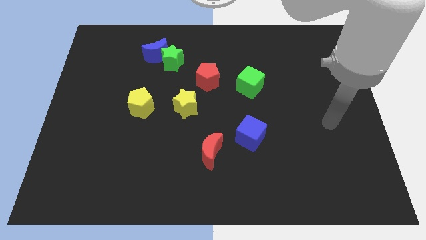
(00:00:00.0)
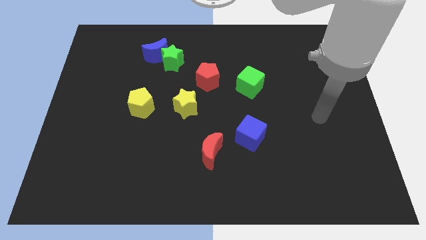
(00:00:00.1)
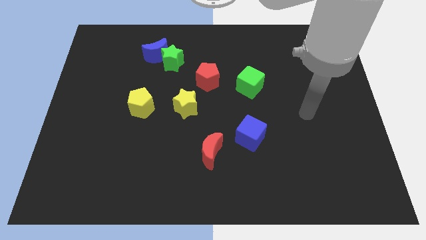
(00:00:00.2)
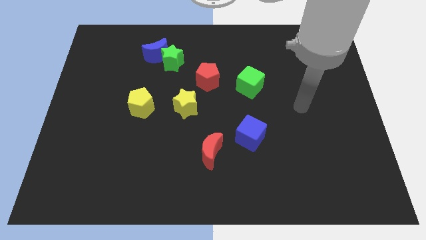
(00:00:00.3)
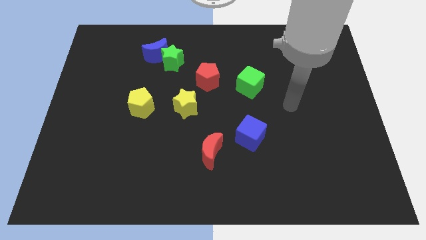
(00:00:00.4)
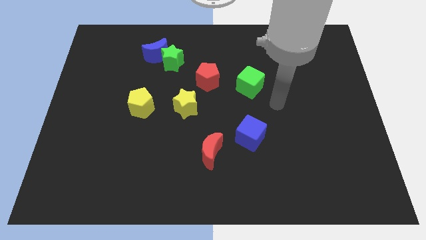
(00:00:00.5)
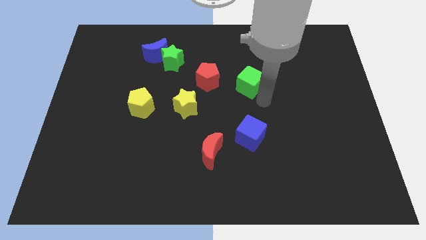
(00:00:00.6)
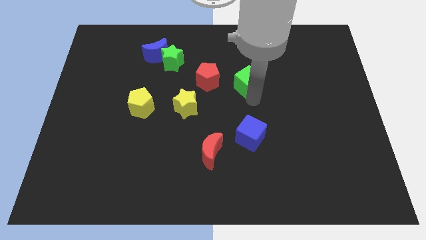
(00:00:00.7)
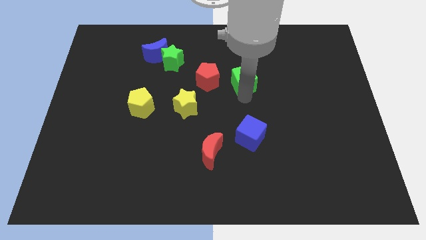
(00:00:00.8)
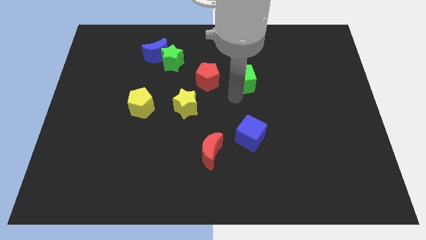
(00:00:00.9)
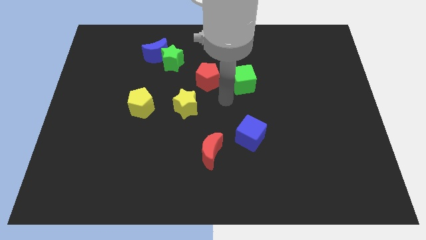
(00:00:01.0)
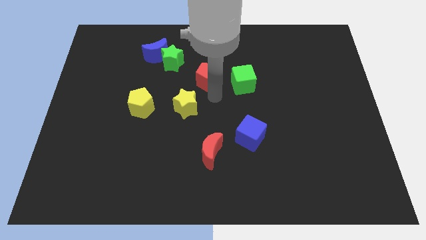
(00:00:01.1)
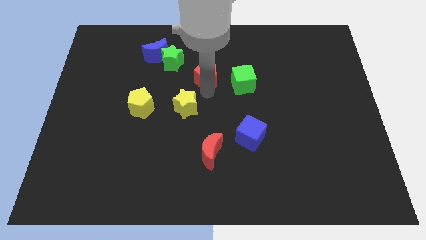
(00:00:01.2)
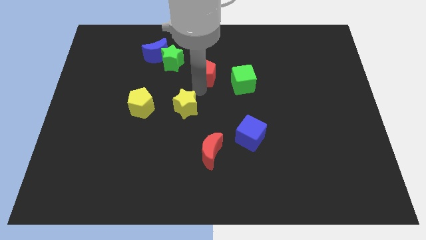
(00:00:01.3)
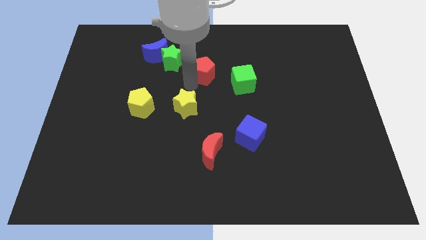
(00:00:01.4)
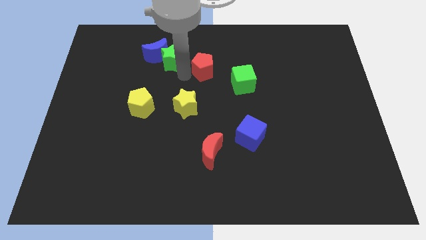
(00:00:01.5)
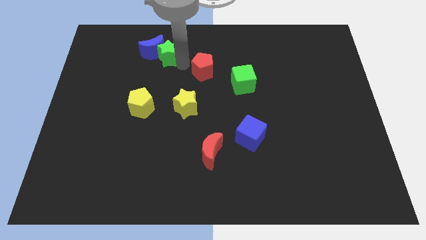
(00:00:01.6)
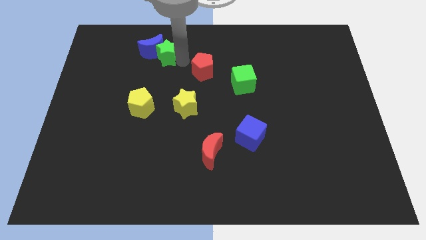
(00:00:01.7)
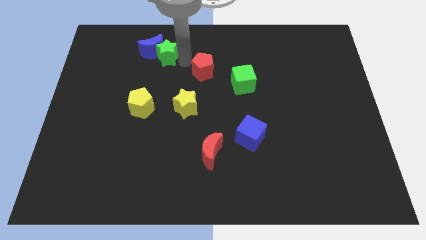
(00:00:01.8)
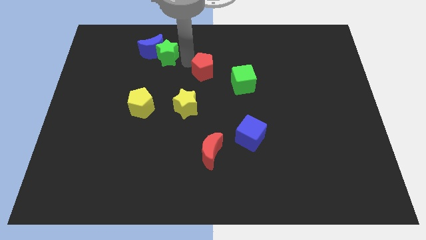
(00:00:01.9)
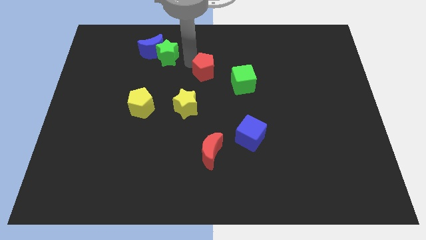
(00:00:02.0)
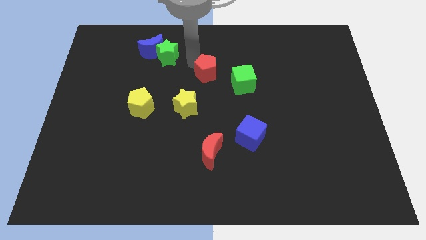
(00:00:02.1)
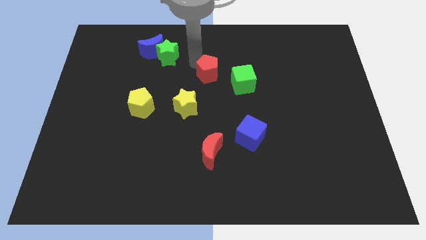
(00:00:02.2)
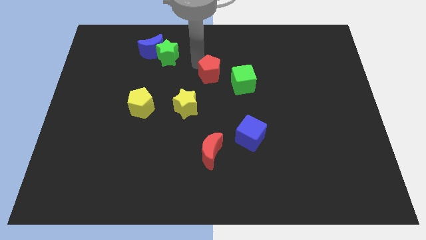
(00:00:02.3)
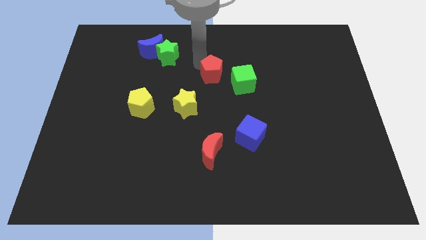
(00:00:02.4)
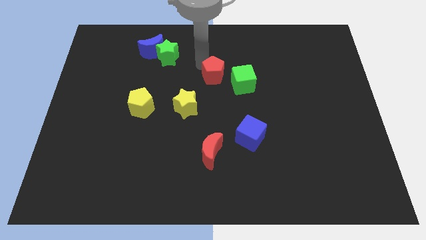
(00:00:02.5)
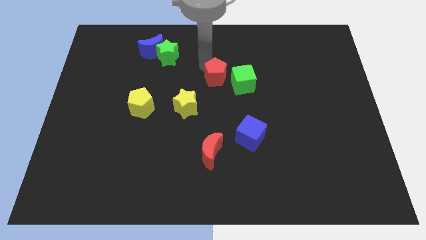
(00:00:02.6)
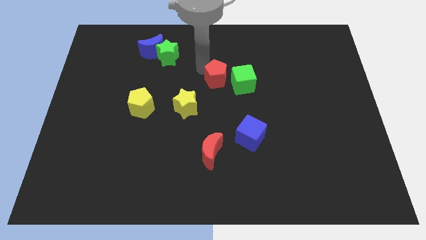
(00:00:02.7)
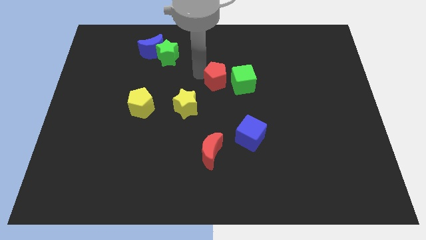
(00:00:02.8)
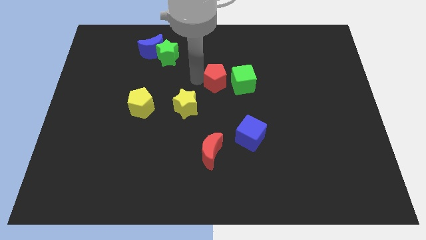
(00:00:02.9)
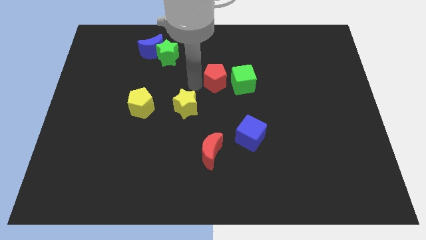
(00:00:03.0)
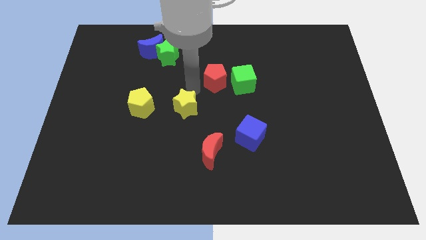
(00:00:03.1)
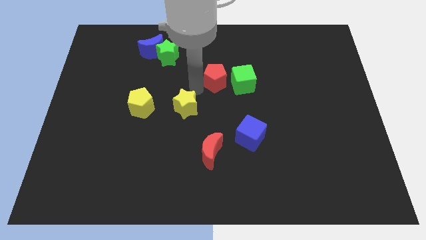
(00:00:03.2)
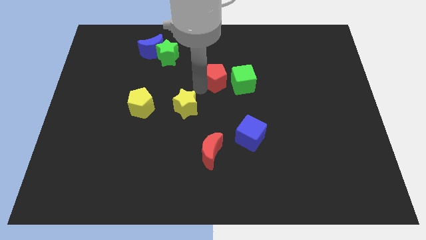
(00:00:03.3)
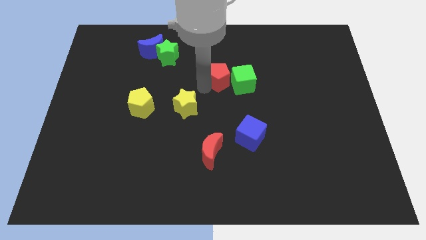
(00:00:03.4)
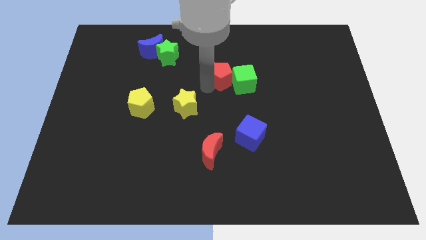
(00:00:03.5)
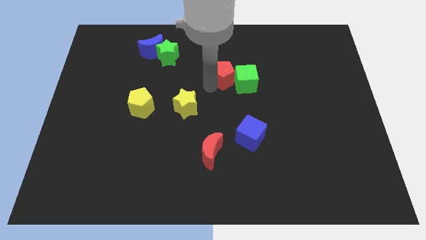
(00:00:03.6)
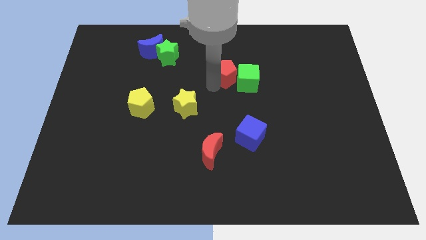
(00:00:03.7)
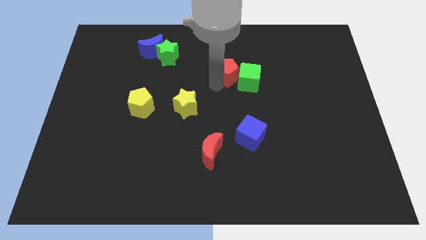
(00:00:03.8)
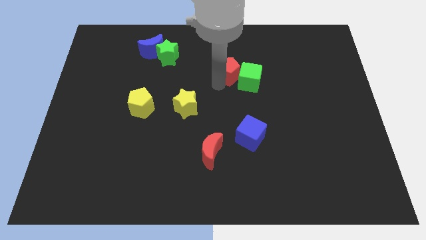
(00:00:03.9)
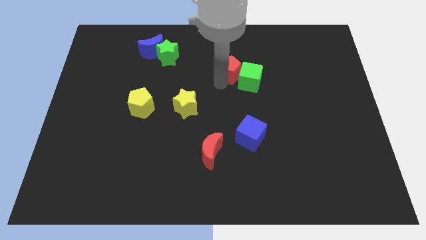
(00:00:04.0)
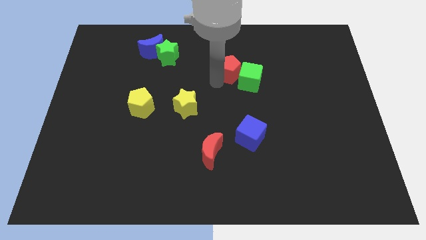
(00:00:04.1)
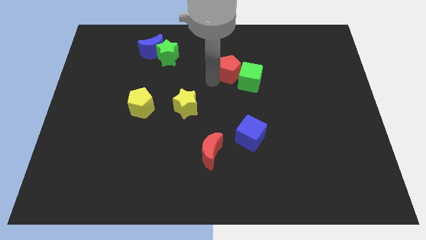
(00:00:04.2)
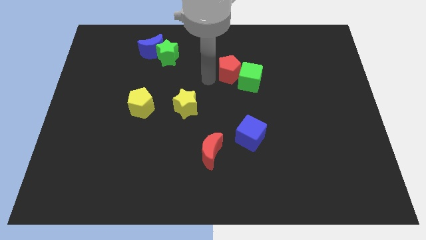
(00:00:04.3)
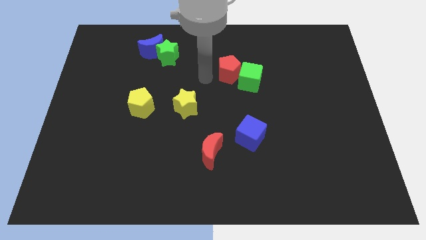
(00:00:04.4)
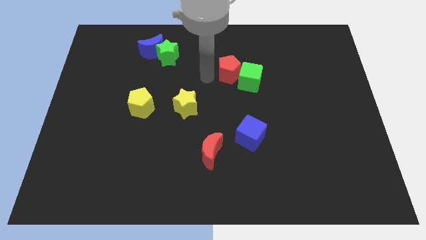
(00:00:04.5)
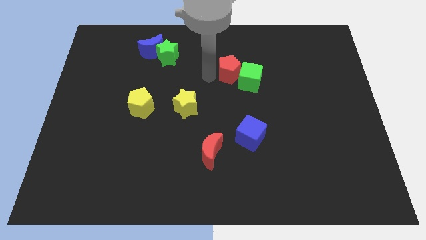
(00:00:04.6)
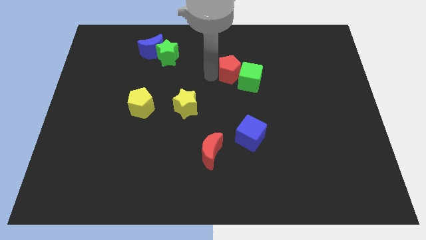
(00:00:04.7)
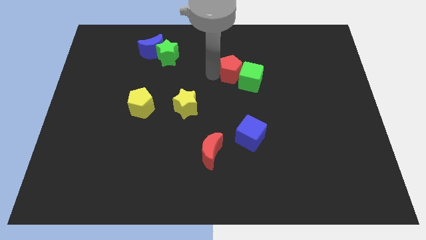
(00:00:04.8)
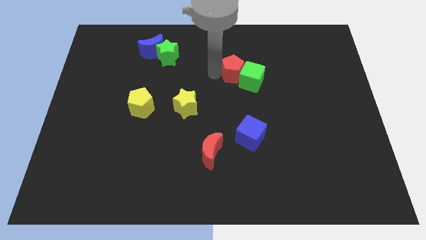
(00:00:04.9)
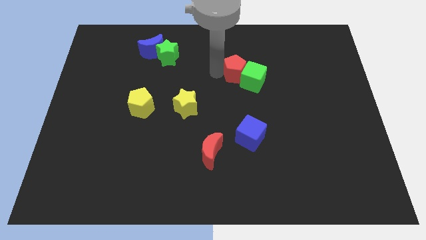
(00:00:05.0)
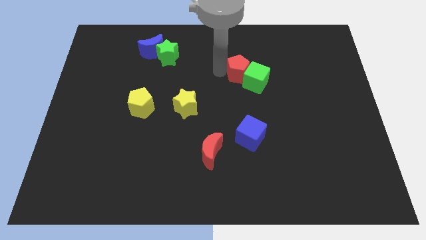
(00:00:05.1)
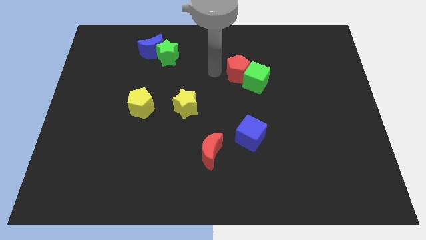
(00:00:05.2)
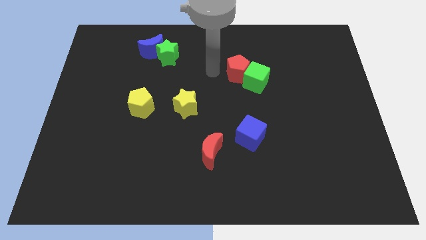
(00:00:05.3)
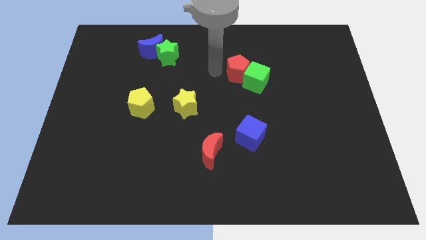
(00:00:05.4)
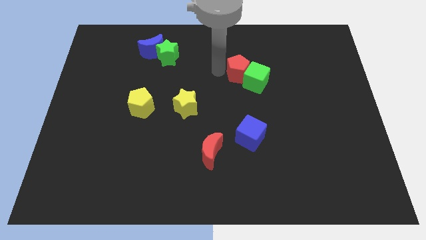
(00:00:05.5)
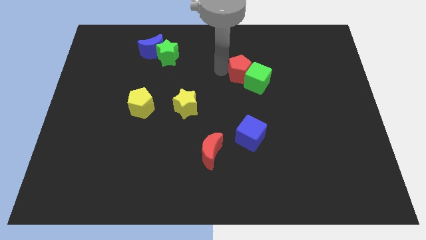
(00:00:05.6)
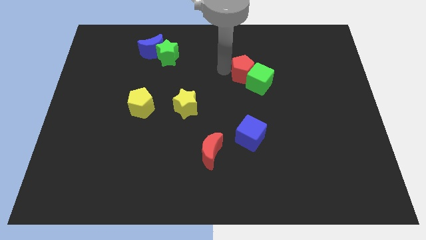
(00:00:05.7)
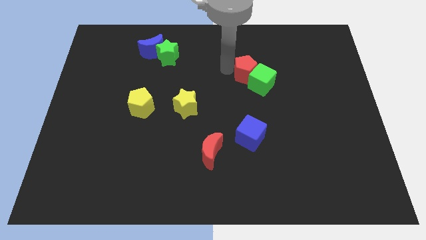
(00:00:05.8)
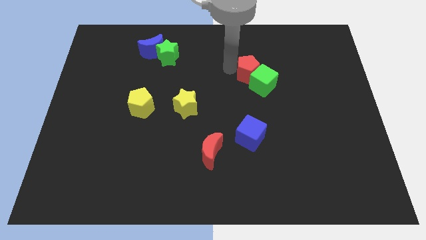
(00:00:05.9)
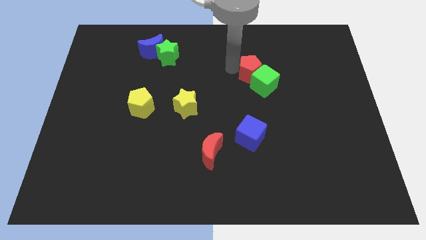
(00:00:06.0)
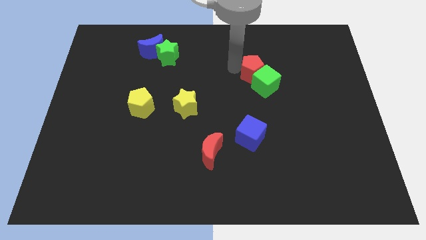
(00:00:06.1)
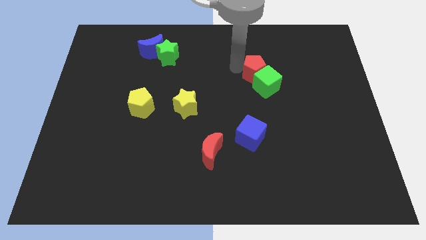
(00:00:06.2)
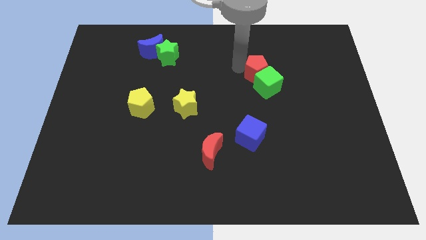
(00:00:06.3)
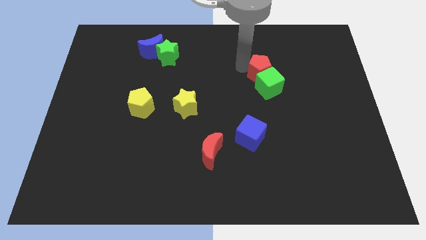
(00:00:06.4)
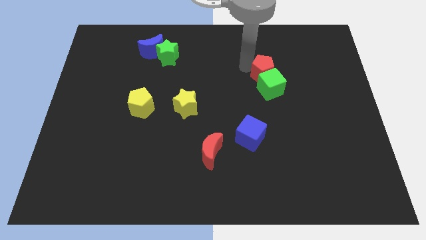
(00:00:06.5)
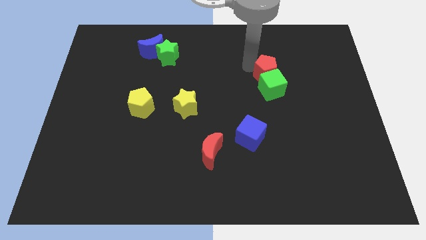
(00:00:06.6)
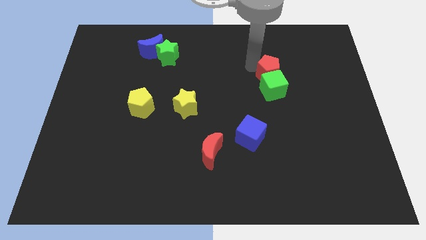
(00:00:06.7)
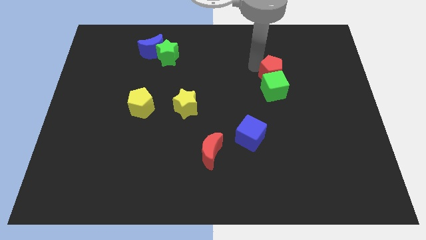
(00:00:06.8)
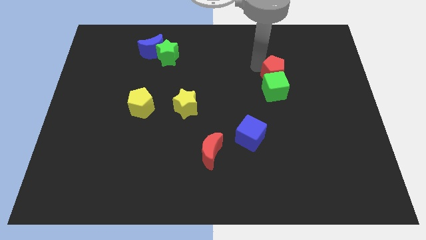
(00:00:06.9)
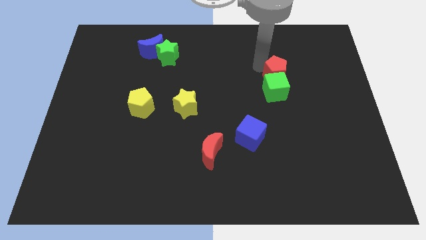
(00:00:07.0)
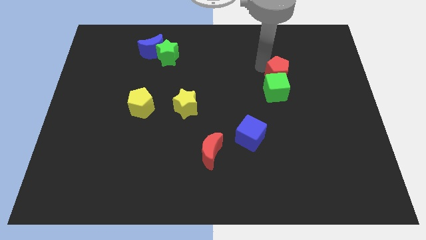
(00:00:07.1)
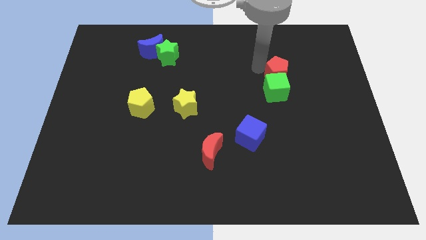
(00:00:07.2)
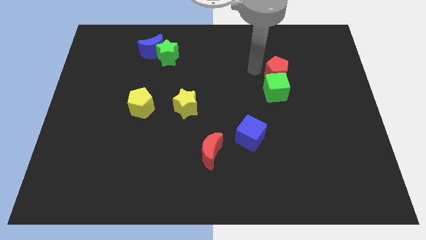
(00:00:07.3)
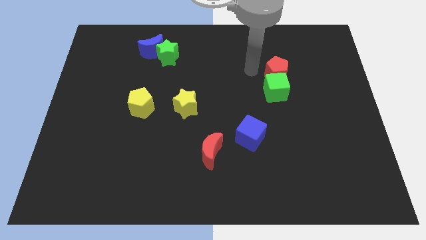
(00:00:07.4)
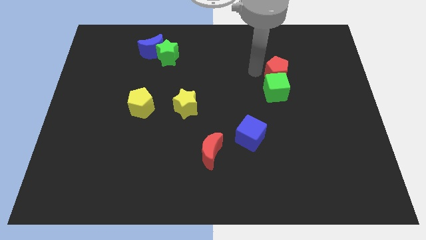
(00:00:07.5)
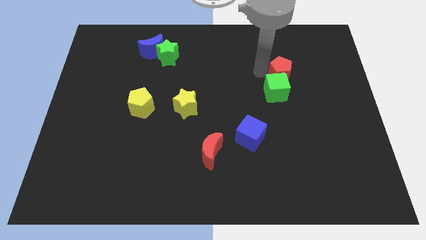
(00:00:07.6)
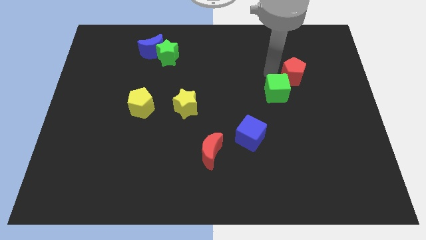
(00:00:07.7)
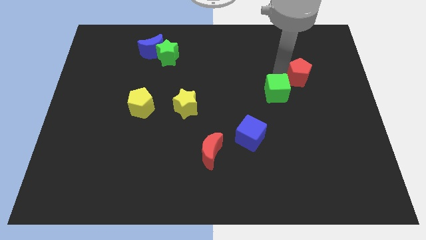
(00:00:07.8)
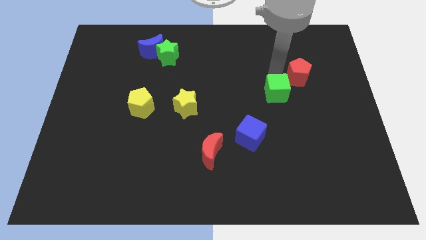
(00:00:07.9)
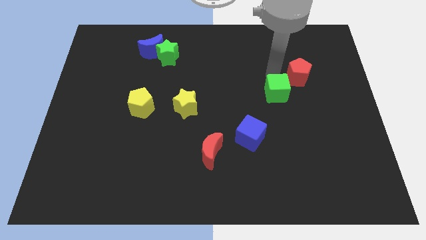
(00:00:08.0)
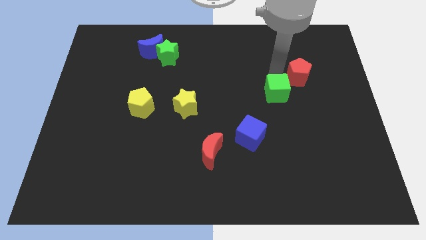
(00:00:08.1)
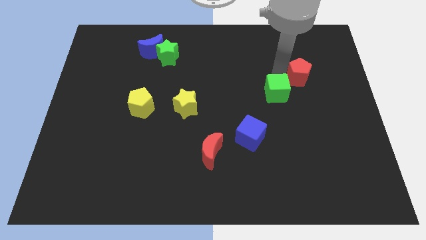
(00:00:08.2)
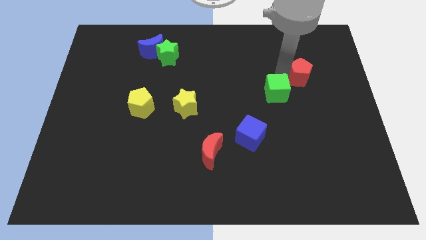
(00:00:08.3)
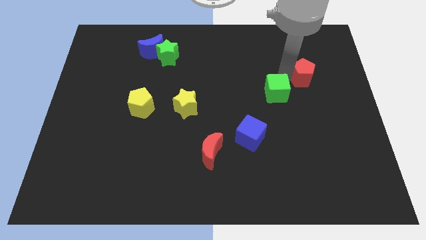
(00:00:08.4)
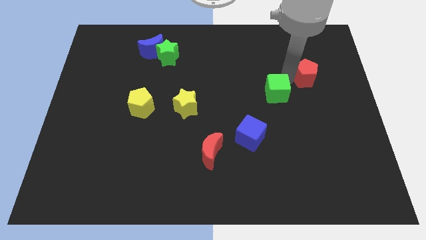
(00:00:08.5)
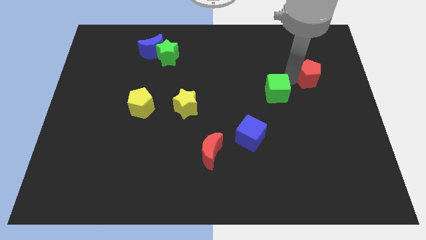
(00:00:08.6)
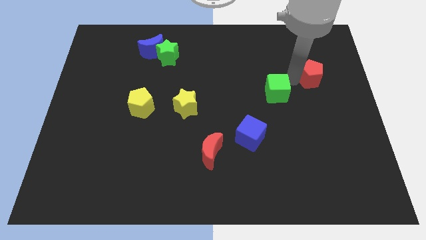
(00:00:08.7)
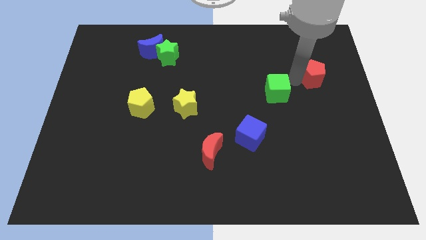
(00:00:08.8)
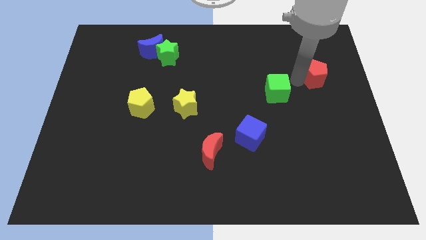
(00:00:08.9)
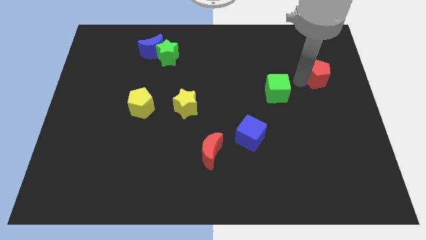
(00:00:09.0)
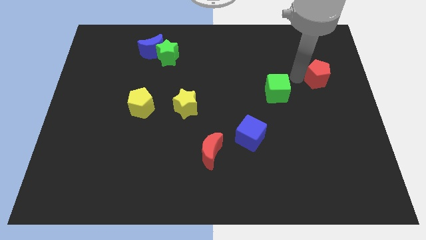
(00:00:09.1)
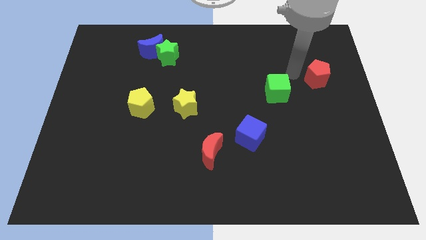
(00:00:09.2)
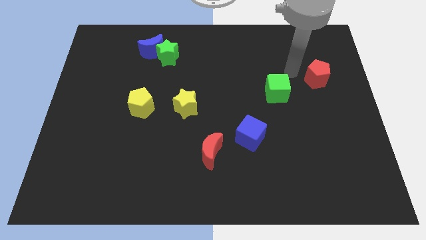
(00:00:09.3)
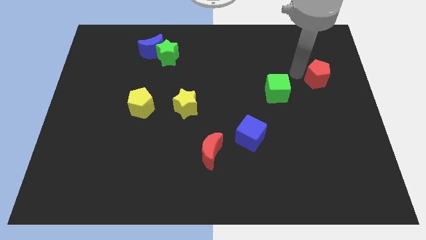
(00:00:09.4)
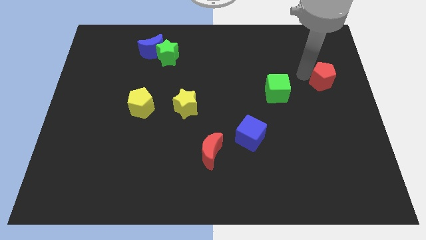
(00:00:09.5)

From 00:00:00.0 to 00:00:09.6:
move the red pentagon to the right side
